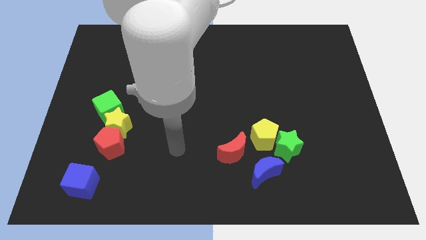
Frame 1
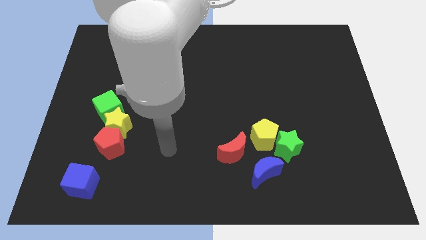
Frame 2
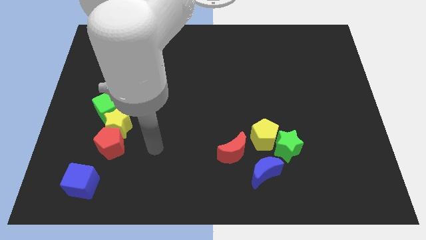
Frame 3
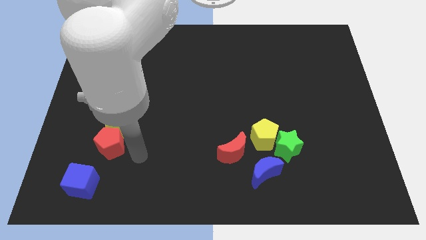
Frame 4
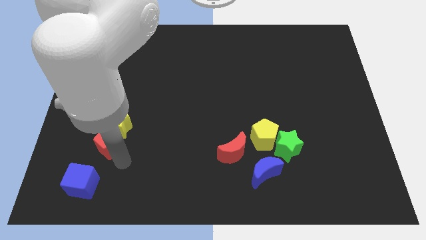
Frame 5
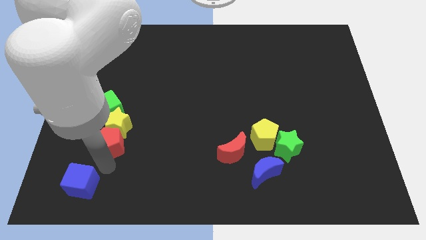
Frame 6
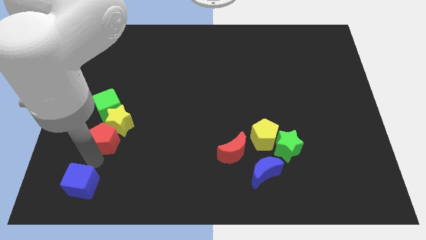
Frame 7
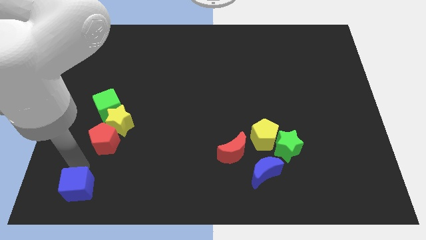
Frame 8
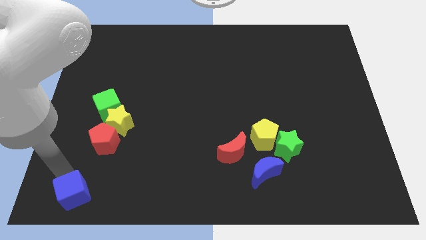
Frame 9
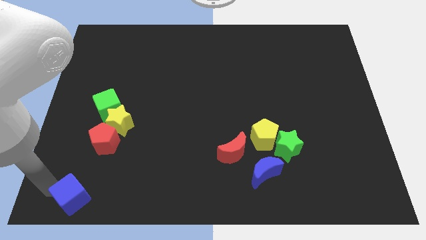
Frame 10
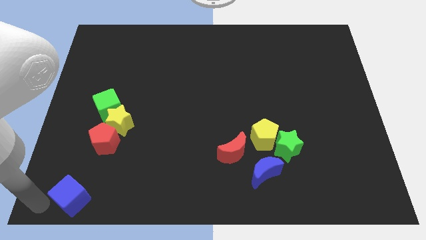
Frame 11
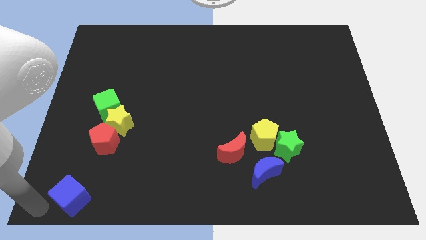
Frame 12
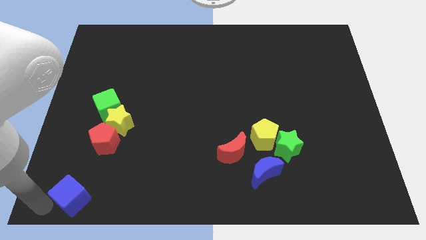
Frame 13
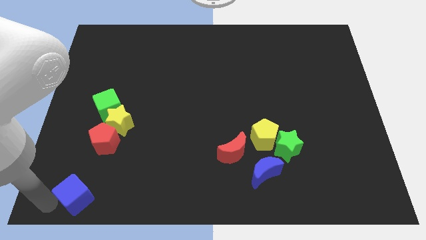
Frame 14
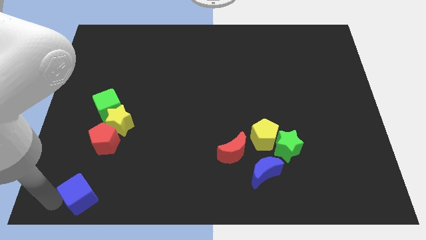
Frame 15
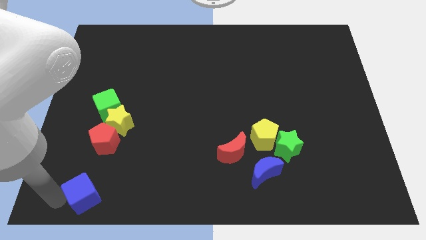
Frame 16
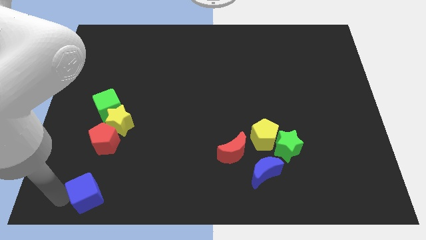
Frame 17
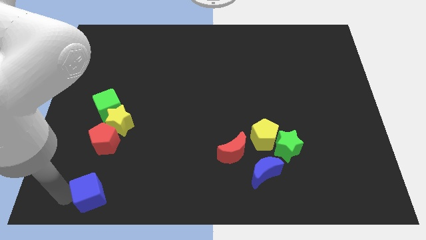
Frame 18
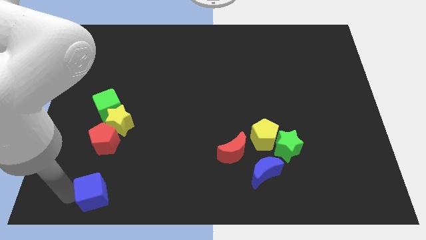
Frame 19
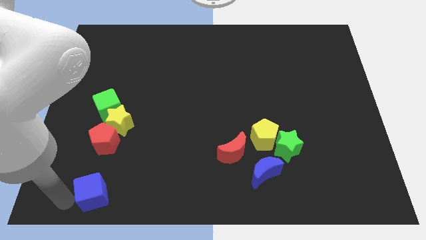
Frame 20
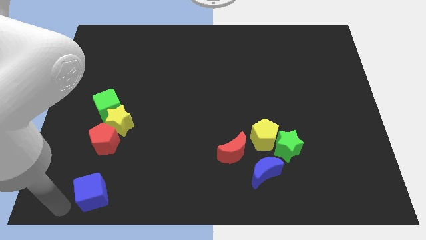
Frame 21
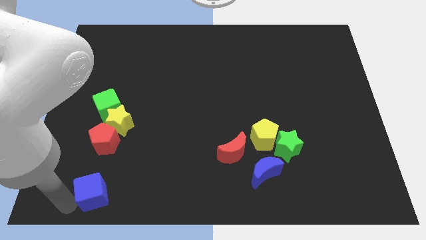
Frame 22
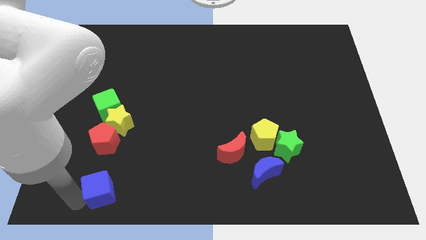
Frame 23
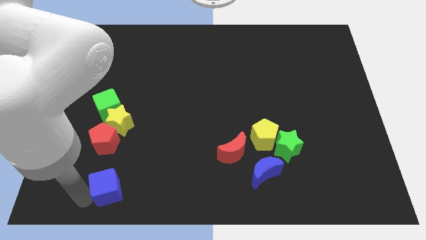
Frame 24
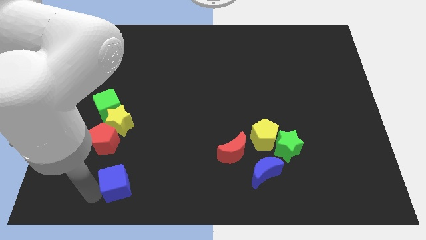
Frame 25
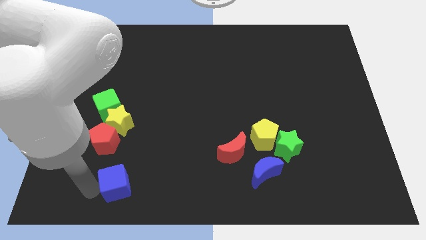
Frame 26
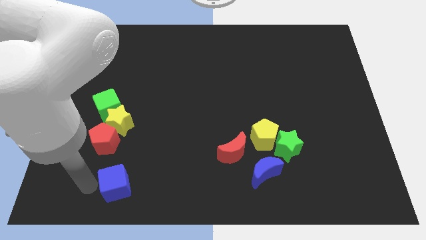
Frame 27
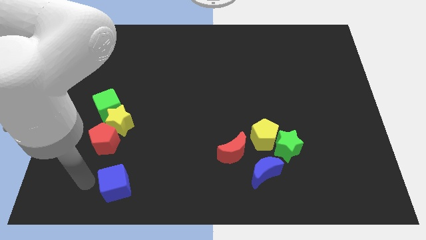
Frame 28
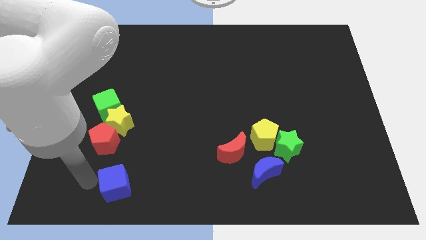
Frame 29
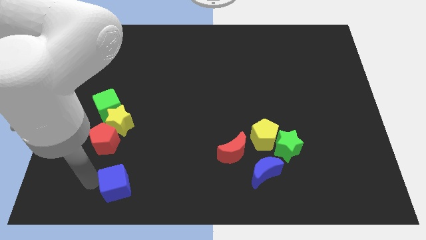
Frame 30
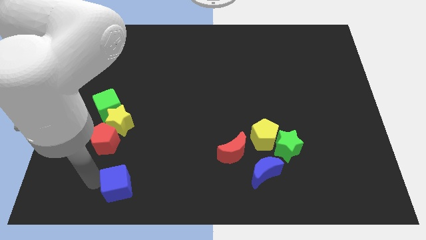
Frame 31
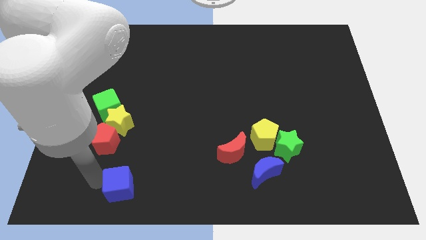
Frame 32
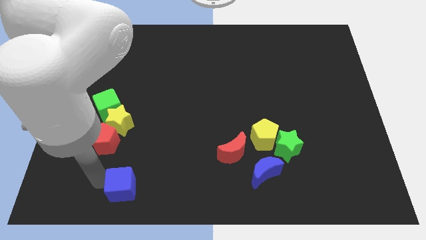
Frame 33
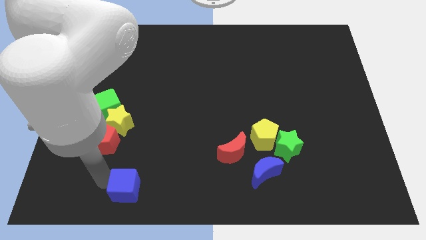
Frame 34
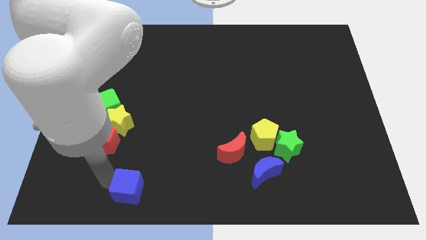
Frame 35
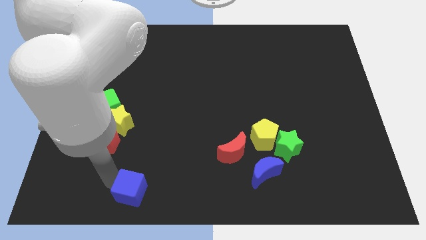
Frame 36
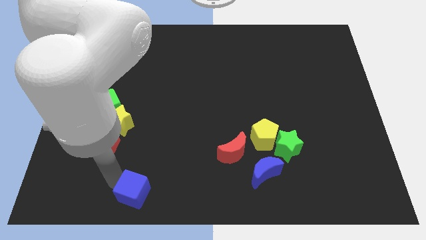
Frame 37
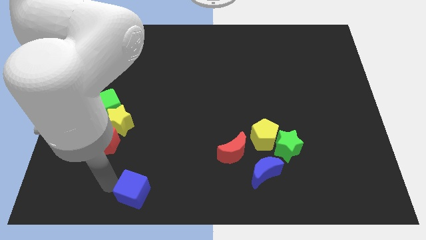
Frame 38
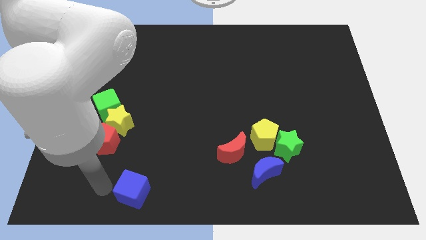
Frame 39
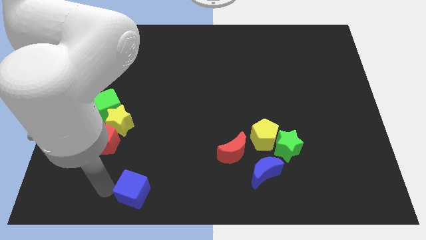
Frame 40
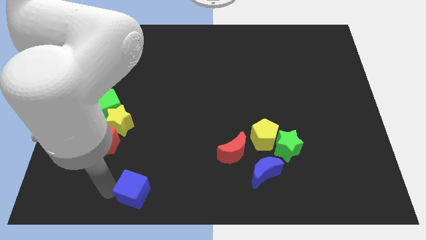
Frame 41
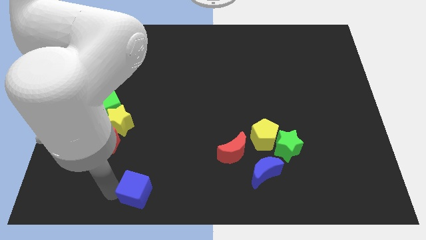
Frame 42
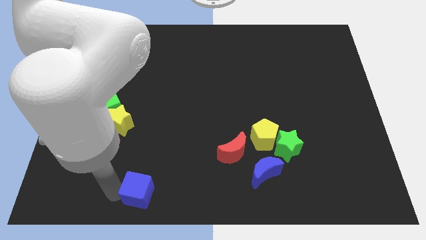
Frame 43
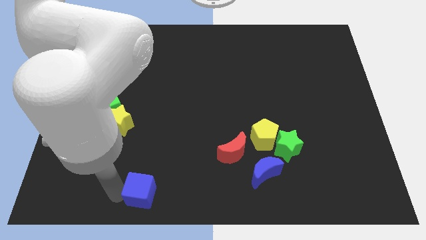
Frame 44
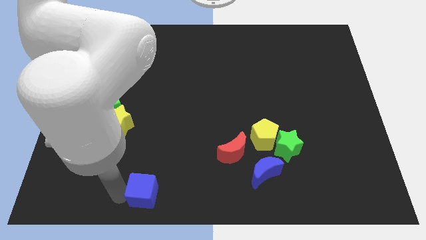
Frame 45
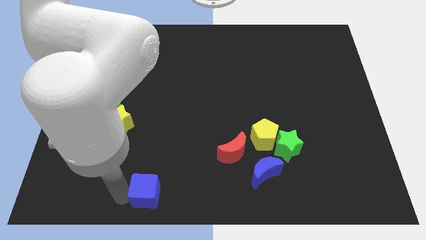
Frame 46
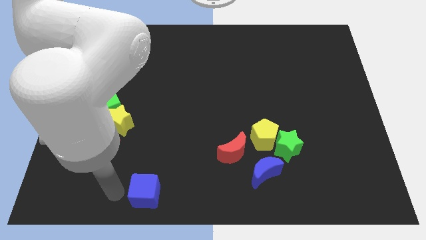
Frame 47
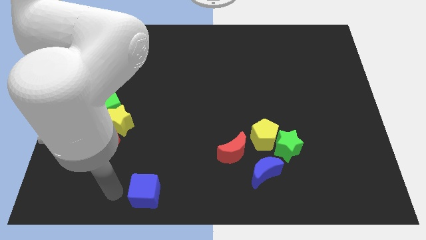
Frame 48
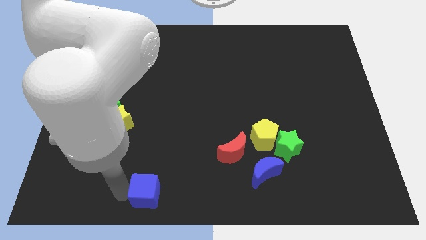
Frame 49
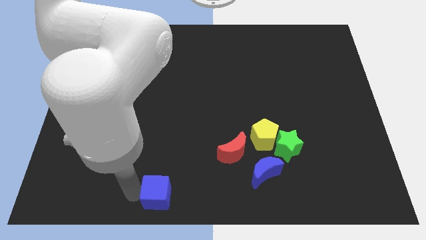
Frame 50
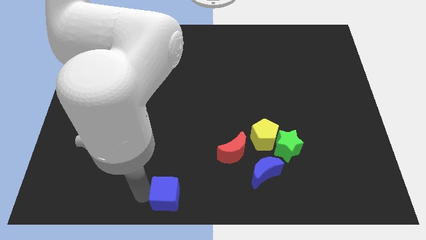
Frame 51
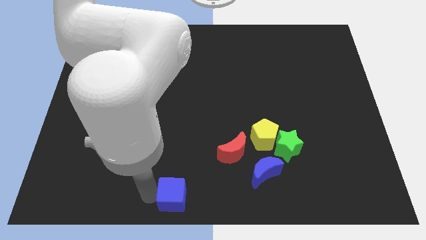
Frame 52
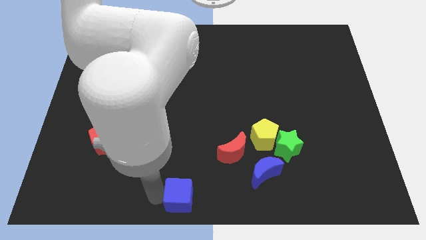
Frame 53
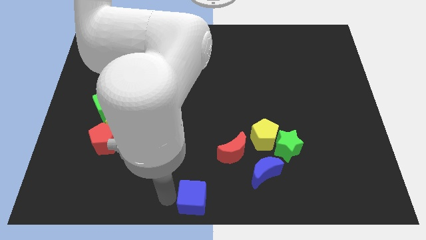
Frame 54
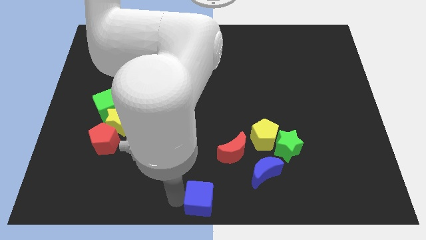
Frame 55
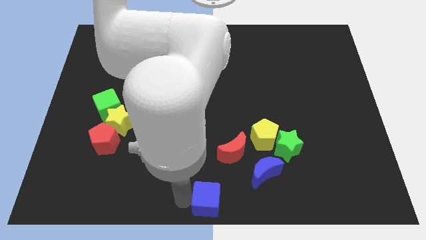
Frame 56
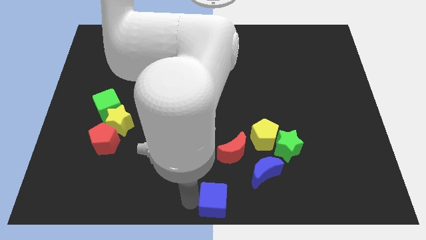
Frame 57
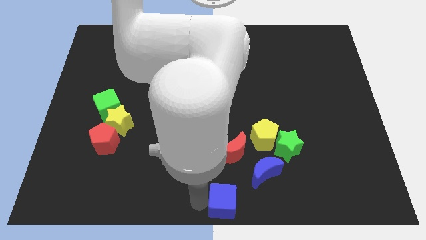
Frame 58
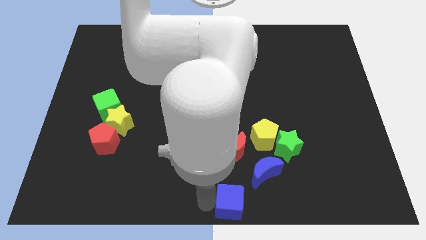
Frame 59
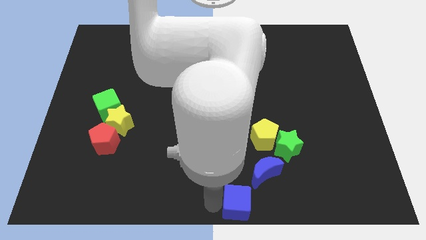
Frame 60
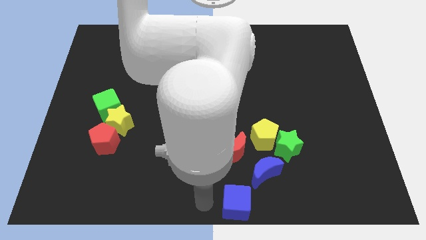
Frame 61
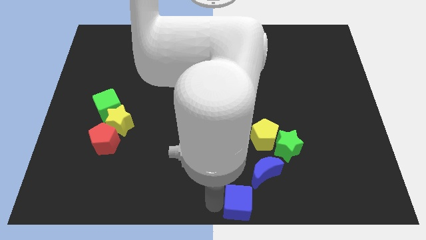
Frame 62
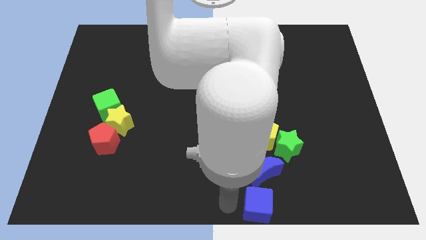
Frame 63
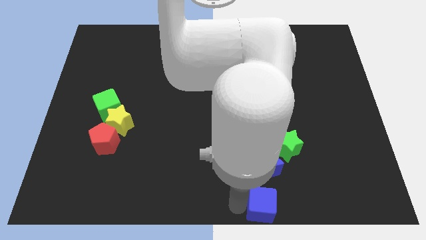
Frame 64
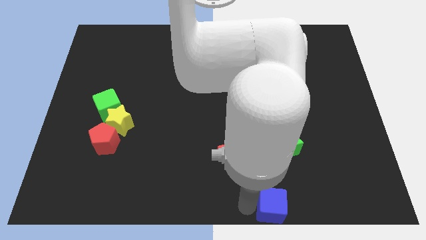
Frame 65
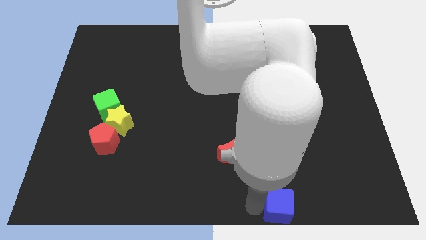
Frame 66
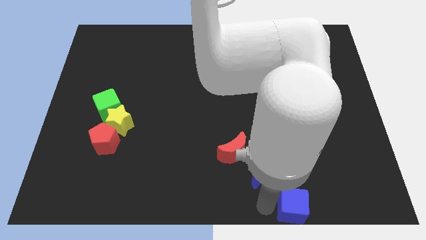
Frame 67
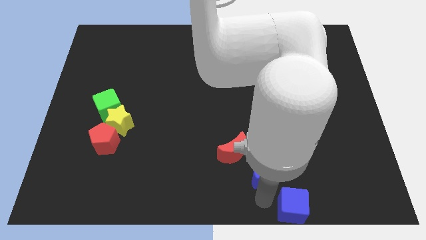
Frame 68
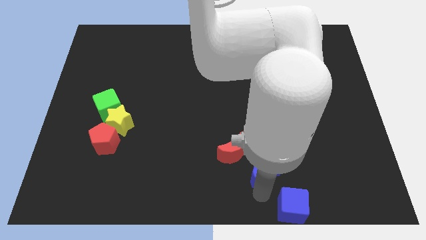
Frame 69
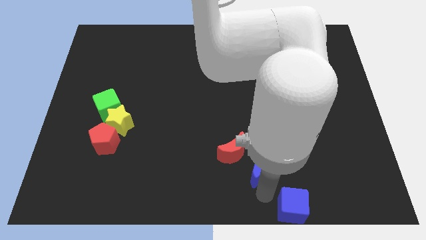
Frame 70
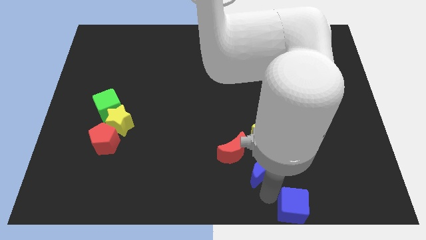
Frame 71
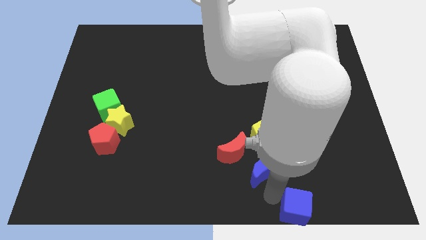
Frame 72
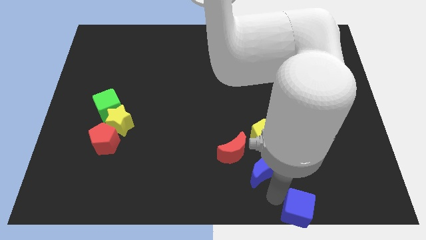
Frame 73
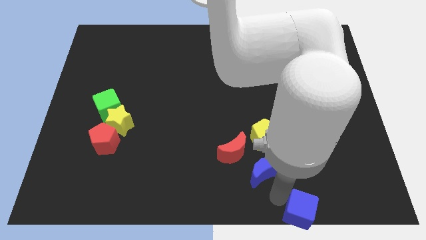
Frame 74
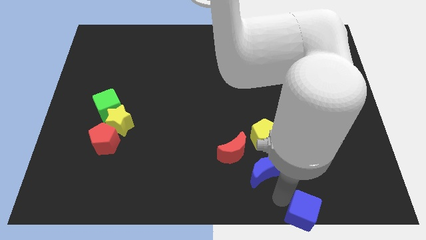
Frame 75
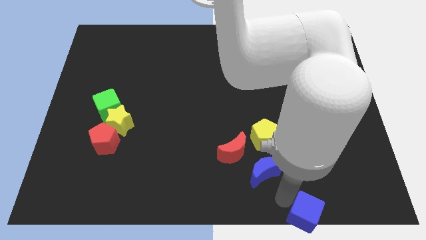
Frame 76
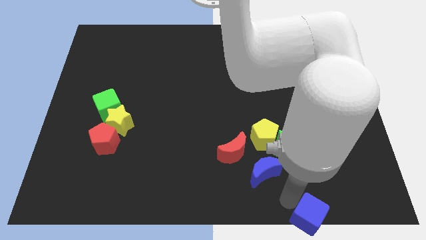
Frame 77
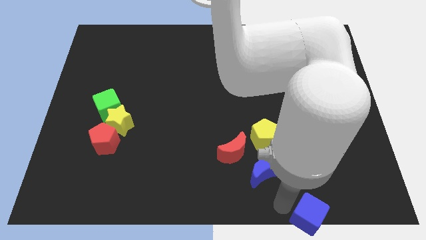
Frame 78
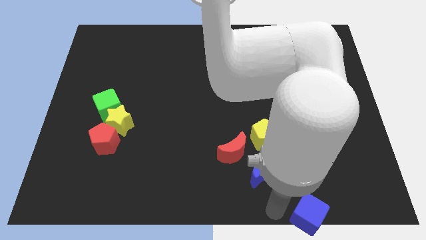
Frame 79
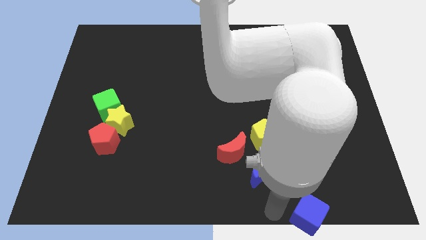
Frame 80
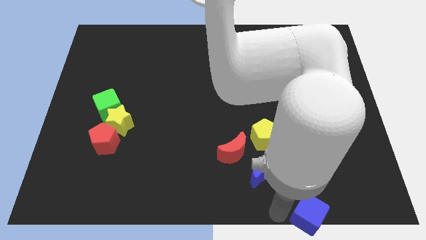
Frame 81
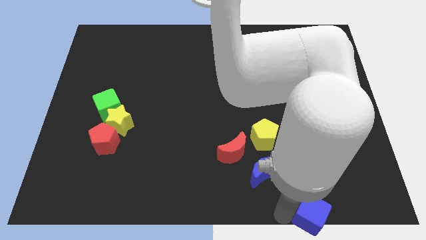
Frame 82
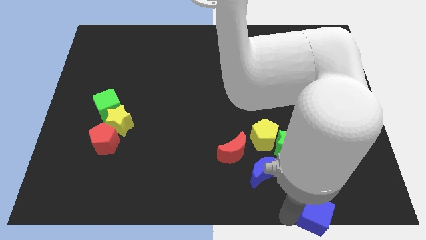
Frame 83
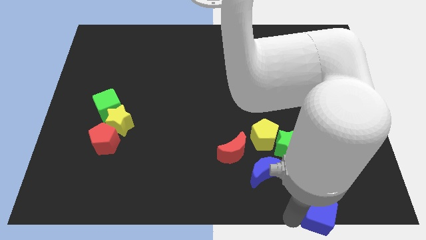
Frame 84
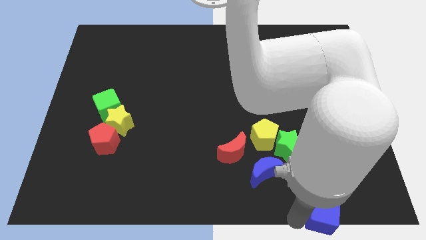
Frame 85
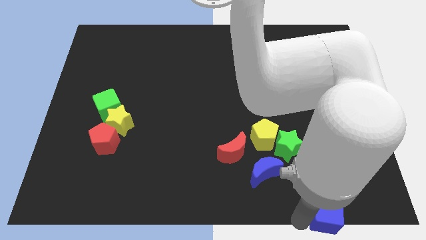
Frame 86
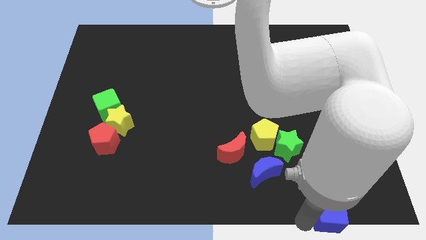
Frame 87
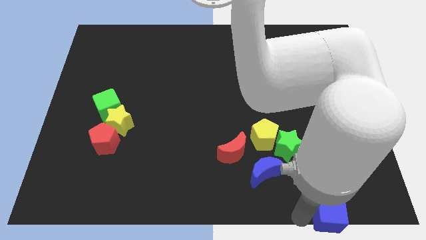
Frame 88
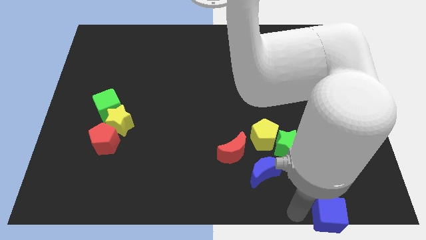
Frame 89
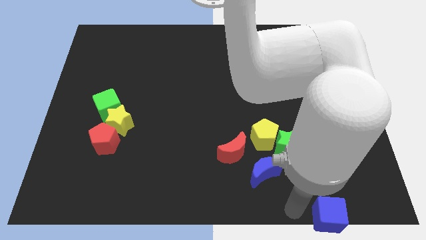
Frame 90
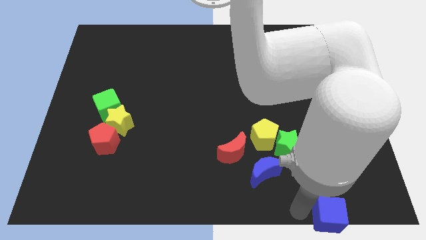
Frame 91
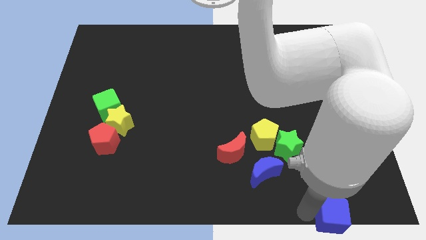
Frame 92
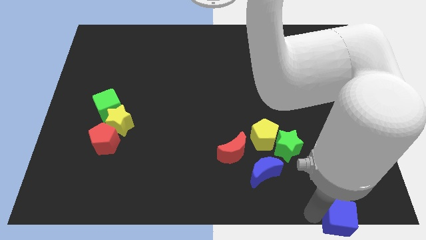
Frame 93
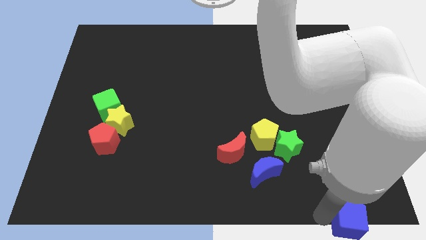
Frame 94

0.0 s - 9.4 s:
slide the blue cube to the bottom right
